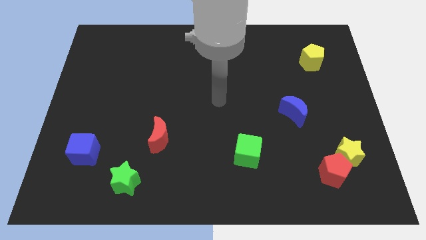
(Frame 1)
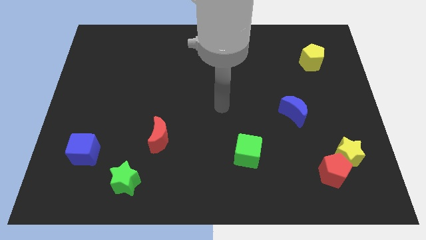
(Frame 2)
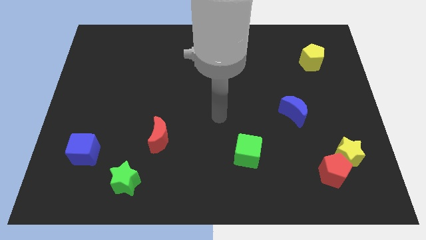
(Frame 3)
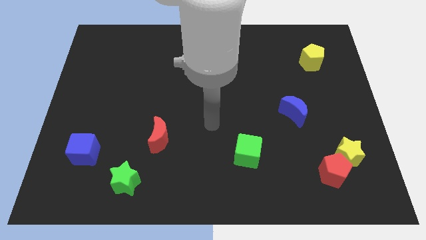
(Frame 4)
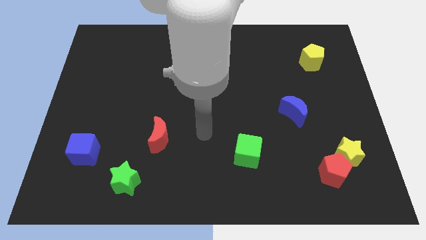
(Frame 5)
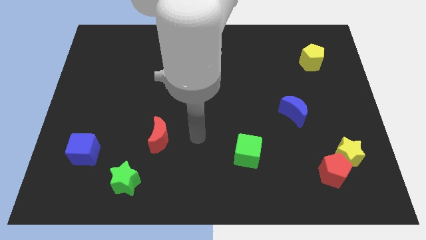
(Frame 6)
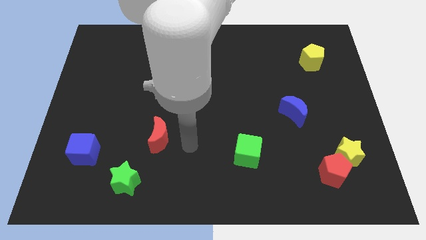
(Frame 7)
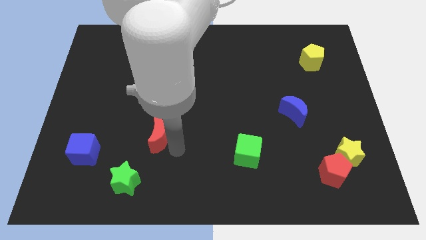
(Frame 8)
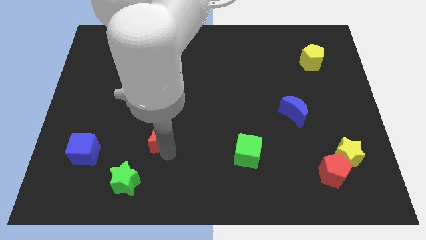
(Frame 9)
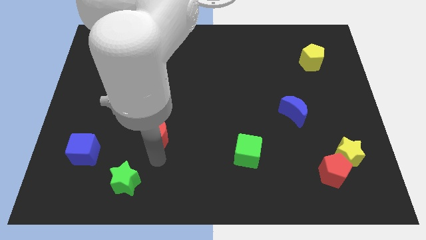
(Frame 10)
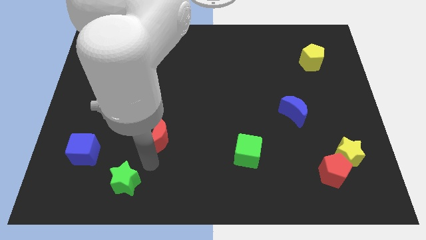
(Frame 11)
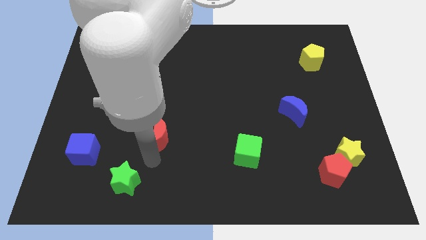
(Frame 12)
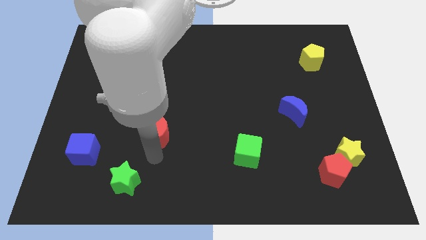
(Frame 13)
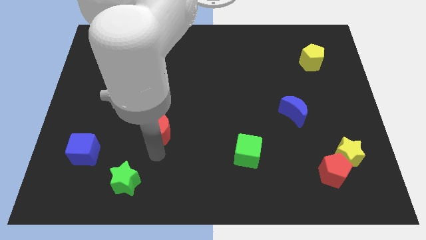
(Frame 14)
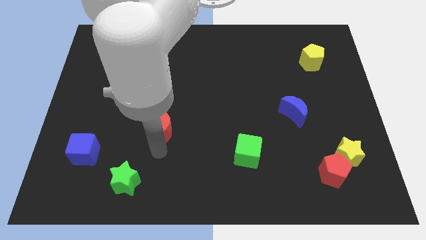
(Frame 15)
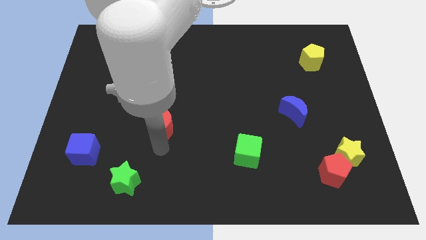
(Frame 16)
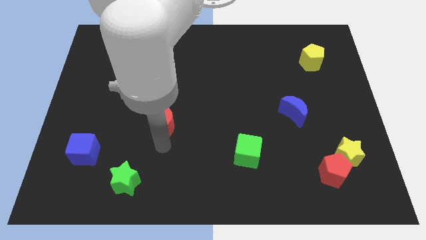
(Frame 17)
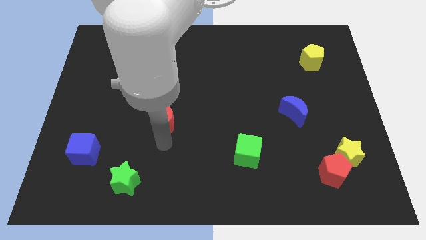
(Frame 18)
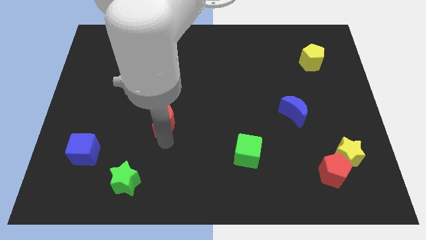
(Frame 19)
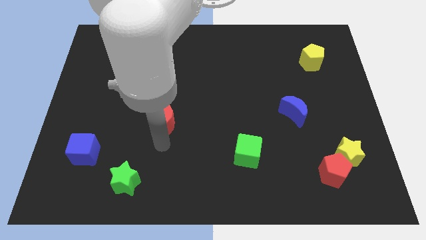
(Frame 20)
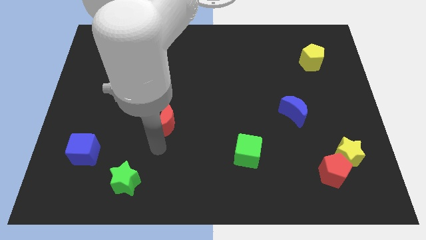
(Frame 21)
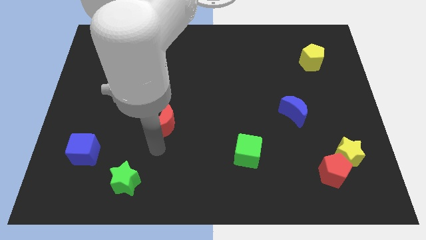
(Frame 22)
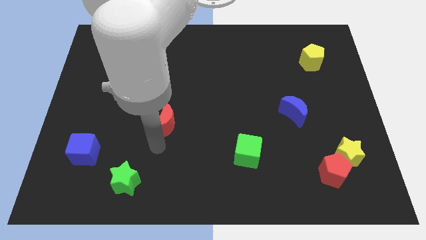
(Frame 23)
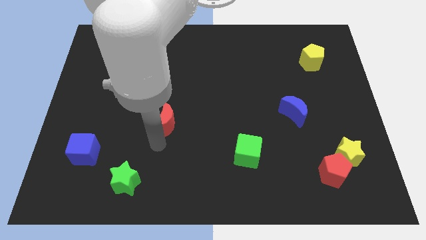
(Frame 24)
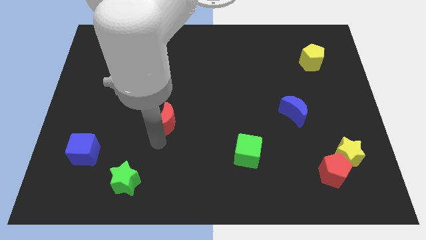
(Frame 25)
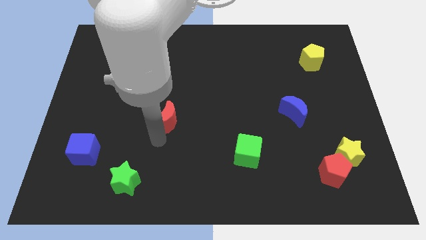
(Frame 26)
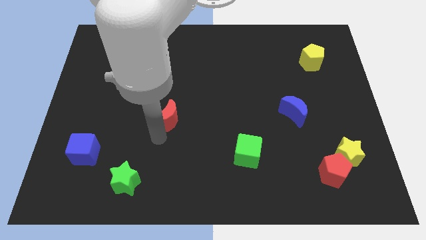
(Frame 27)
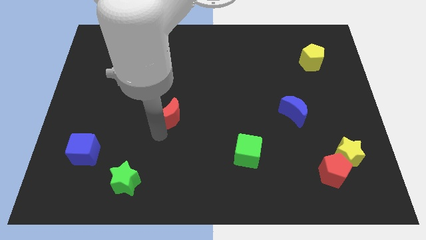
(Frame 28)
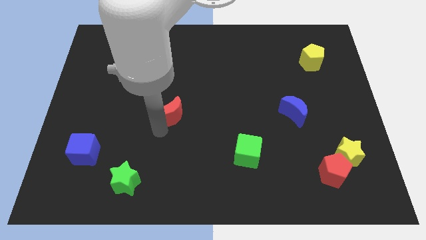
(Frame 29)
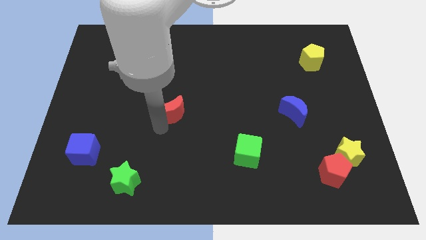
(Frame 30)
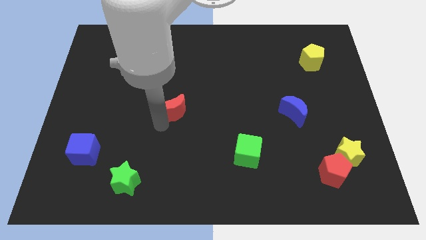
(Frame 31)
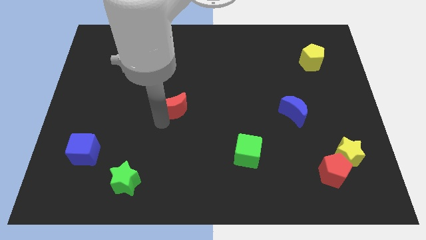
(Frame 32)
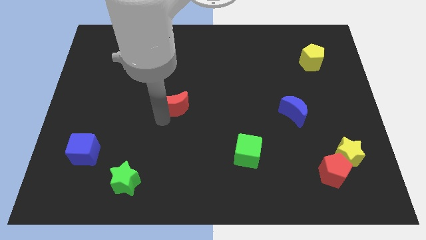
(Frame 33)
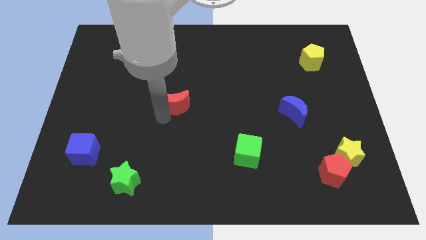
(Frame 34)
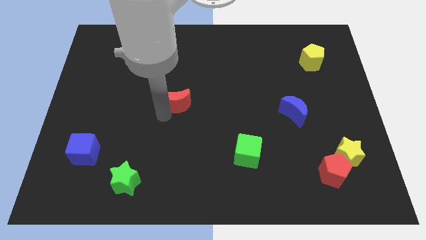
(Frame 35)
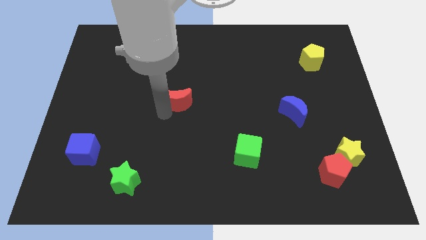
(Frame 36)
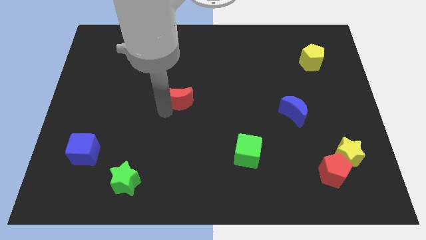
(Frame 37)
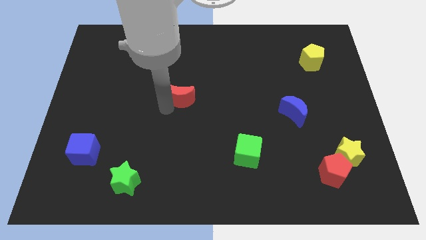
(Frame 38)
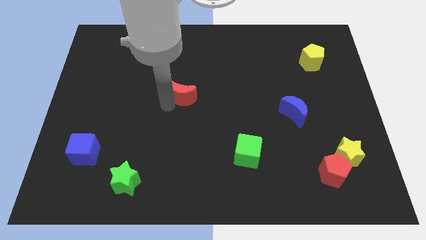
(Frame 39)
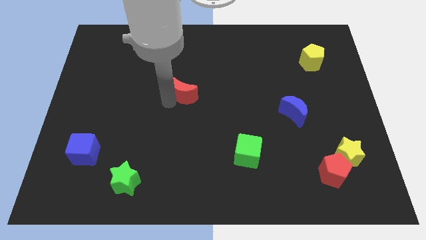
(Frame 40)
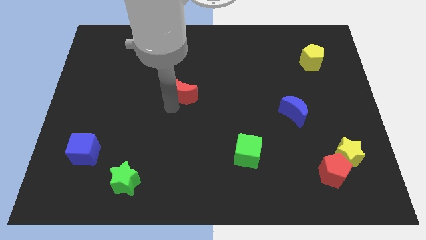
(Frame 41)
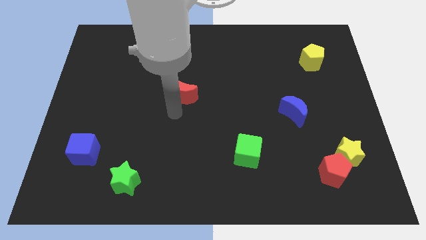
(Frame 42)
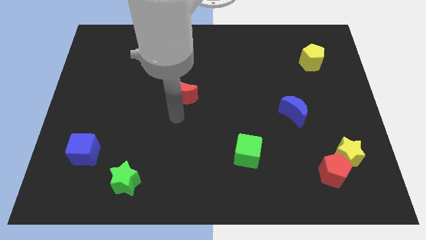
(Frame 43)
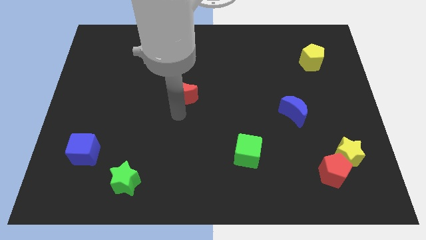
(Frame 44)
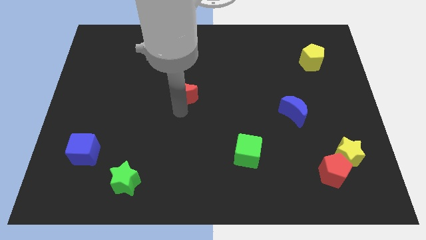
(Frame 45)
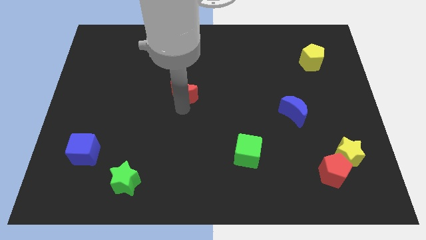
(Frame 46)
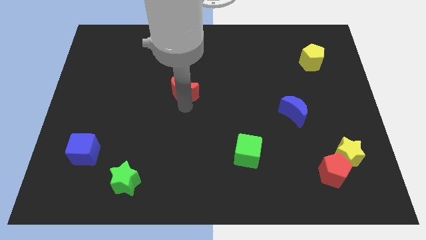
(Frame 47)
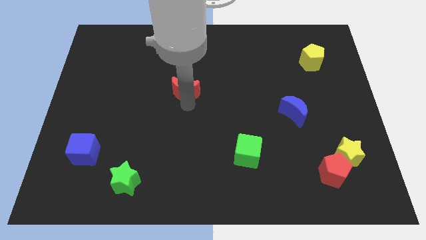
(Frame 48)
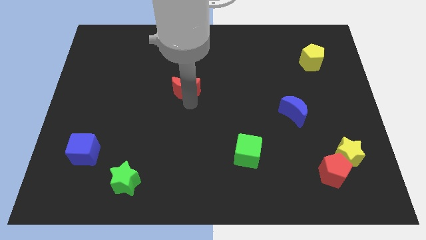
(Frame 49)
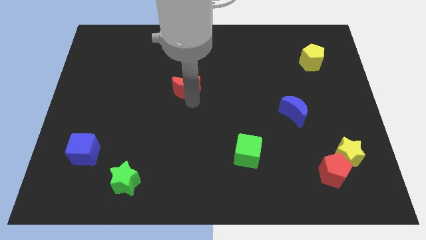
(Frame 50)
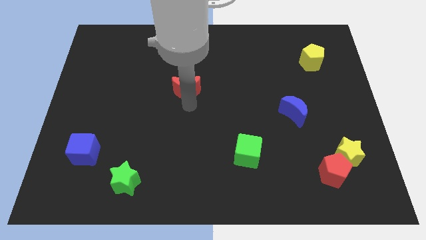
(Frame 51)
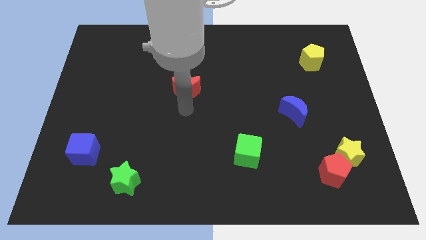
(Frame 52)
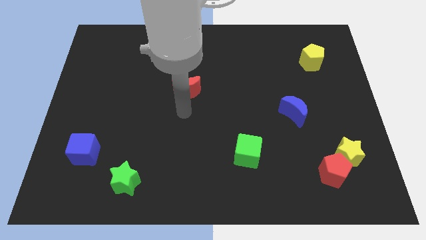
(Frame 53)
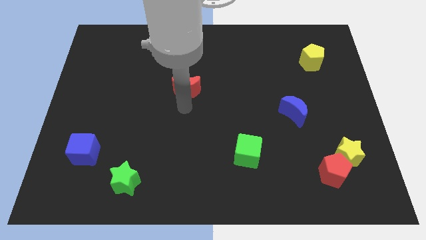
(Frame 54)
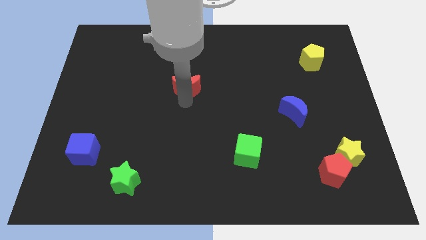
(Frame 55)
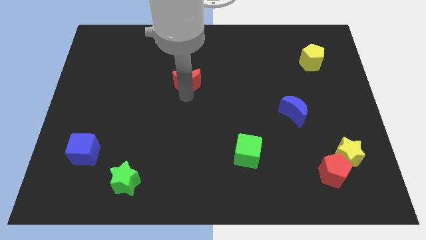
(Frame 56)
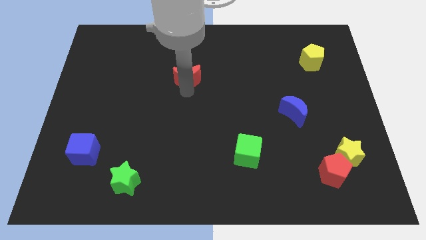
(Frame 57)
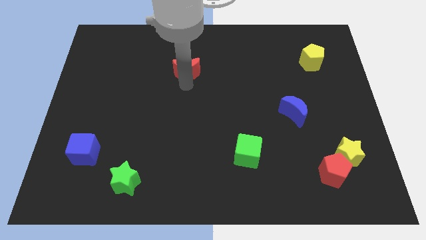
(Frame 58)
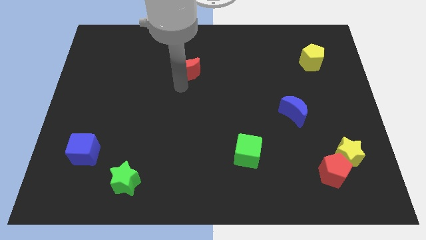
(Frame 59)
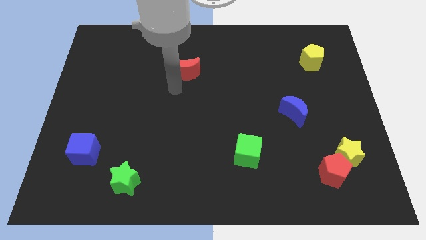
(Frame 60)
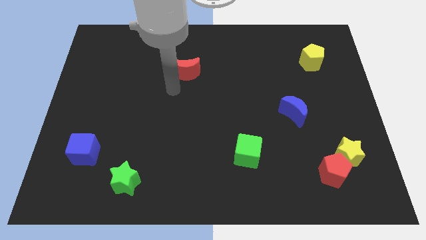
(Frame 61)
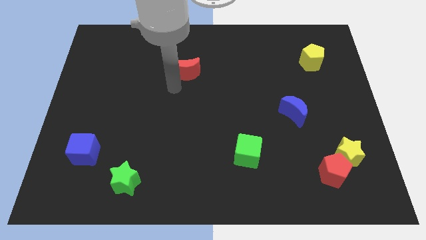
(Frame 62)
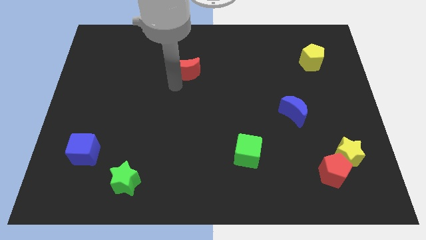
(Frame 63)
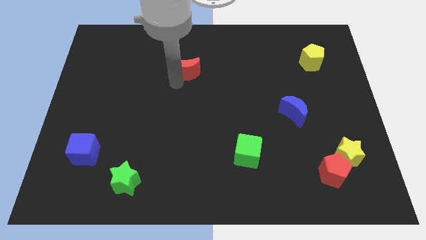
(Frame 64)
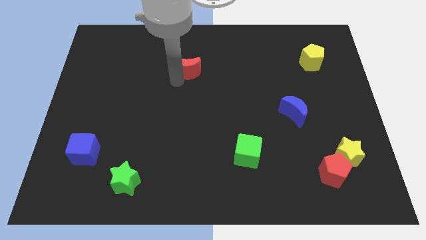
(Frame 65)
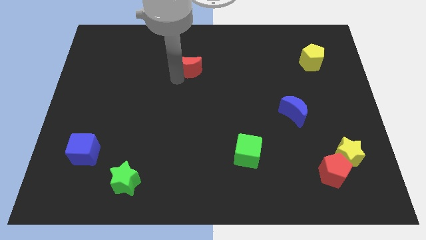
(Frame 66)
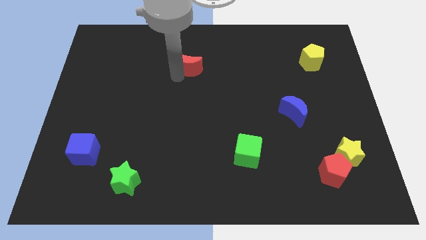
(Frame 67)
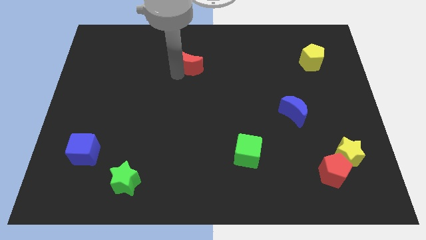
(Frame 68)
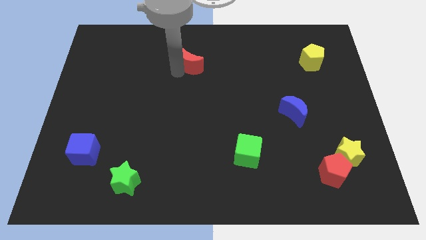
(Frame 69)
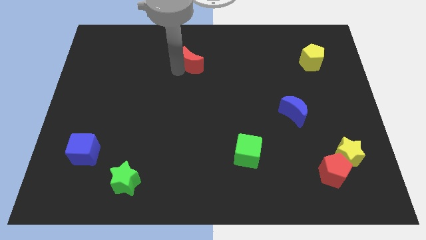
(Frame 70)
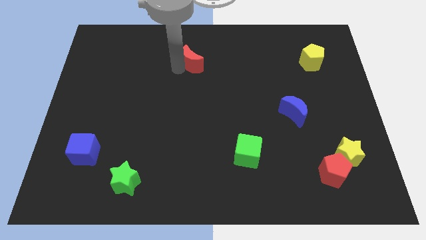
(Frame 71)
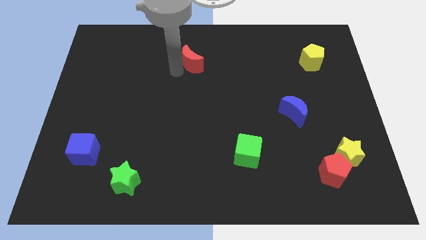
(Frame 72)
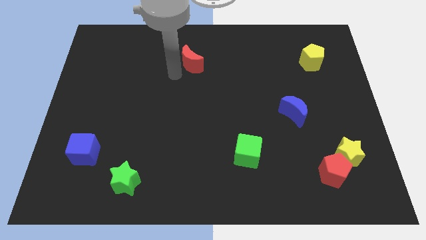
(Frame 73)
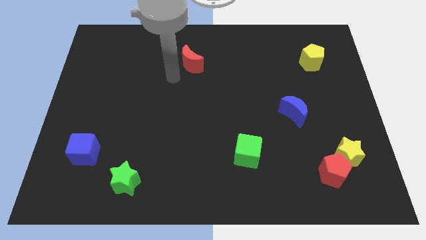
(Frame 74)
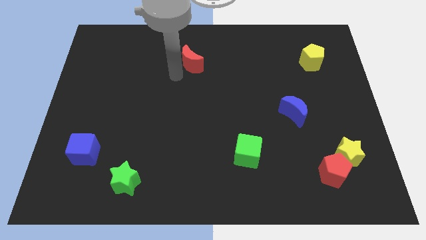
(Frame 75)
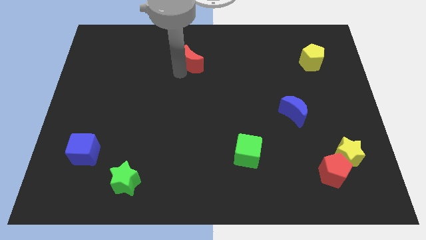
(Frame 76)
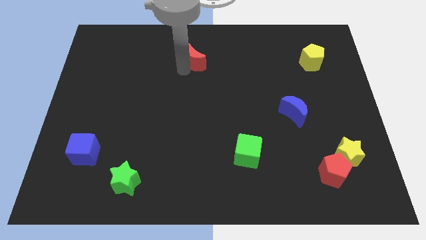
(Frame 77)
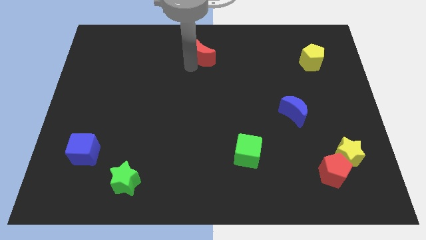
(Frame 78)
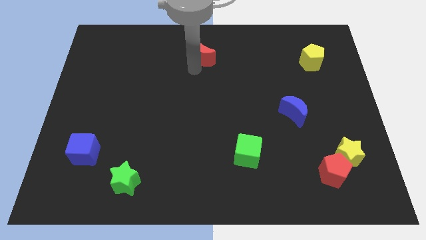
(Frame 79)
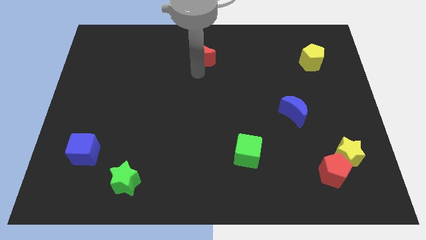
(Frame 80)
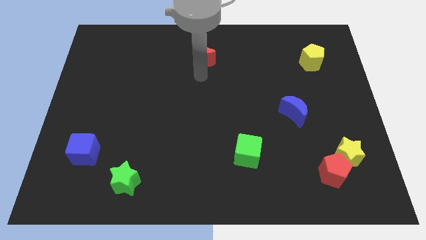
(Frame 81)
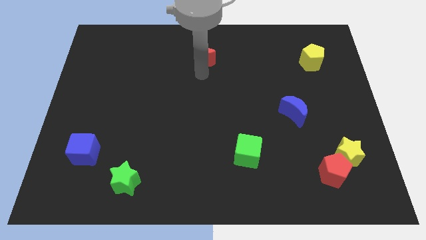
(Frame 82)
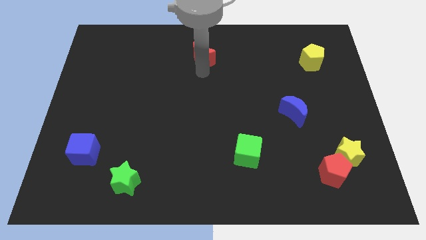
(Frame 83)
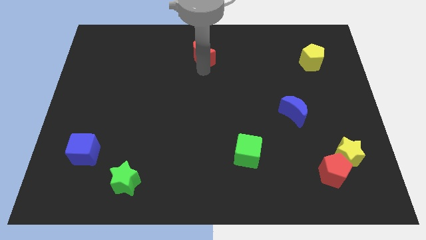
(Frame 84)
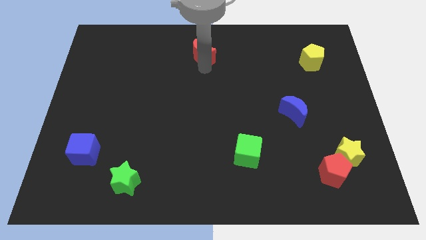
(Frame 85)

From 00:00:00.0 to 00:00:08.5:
move the red moon to the top
